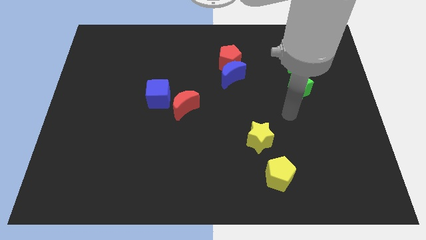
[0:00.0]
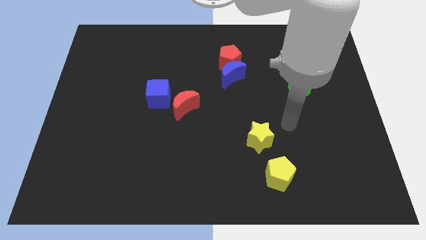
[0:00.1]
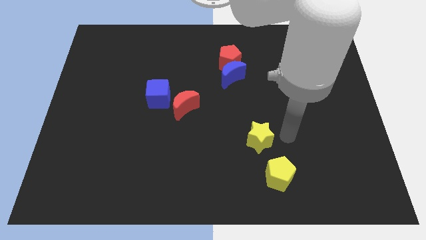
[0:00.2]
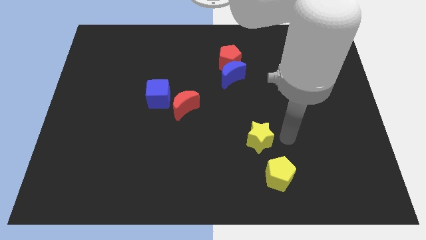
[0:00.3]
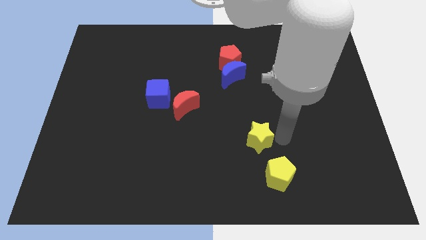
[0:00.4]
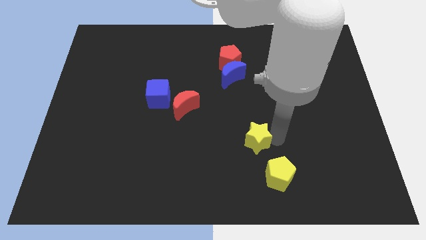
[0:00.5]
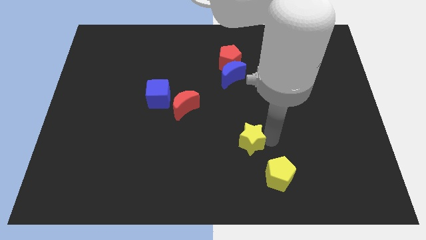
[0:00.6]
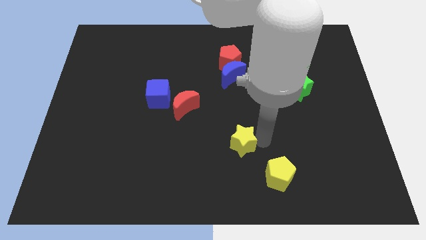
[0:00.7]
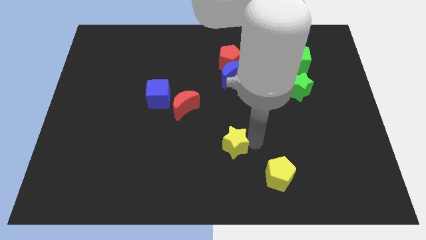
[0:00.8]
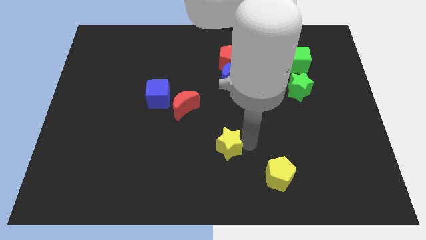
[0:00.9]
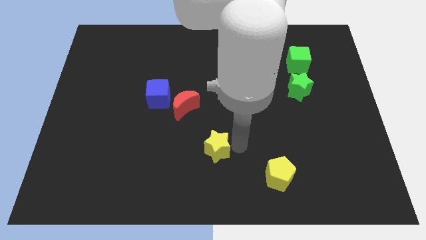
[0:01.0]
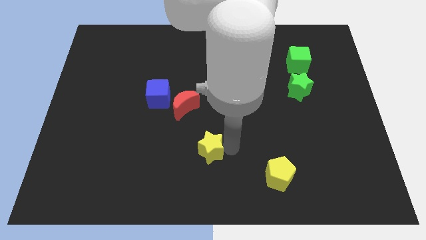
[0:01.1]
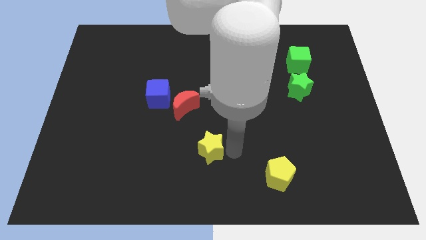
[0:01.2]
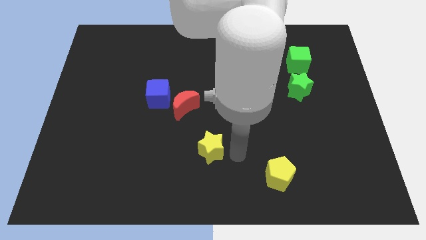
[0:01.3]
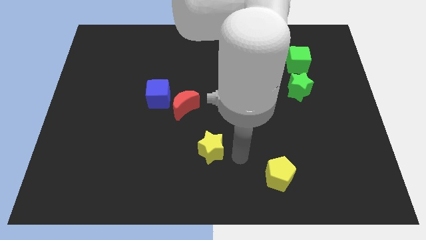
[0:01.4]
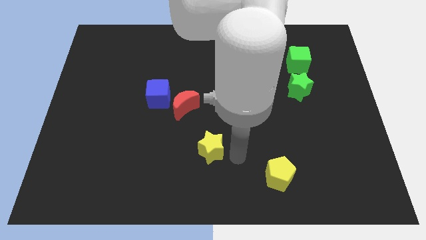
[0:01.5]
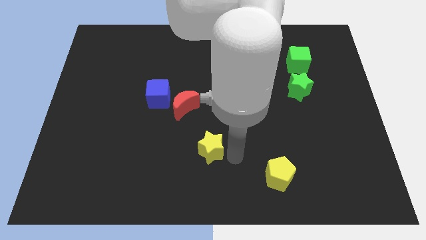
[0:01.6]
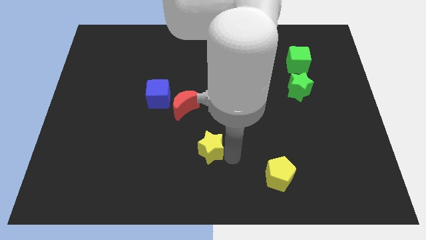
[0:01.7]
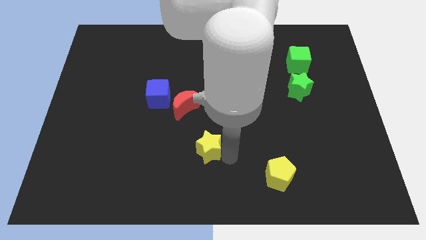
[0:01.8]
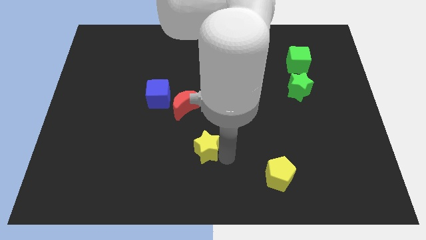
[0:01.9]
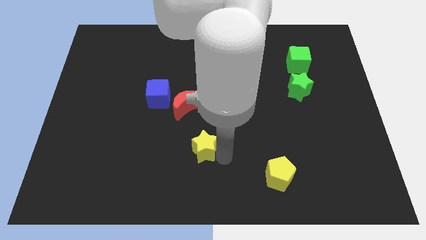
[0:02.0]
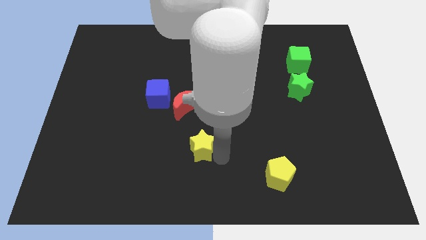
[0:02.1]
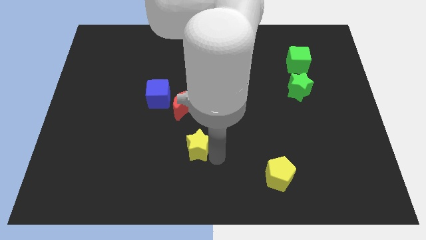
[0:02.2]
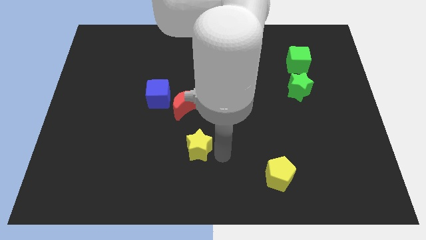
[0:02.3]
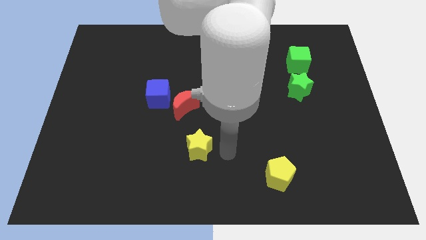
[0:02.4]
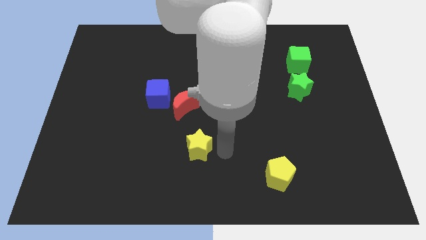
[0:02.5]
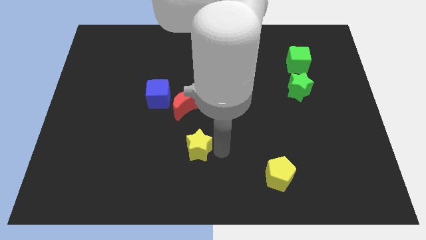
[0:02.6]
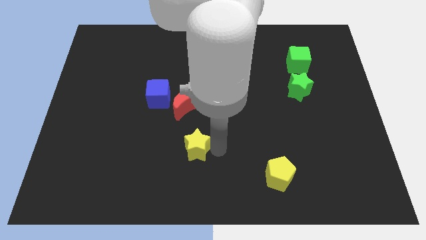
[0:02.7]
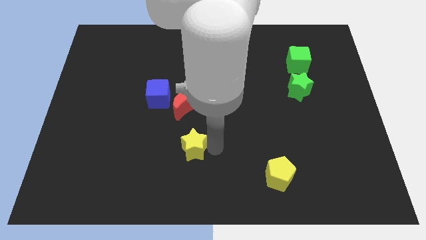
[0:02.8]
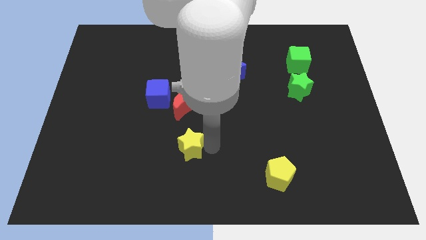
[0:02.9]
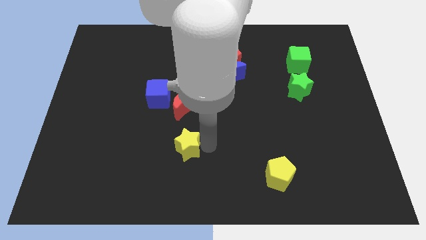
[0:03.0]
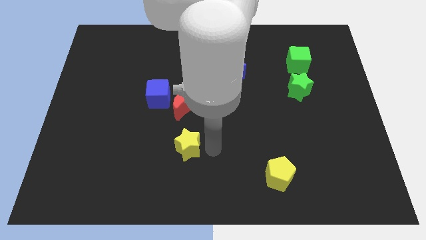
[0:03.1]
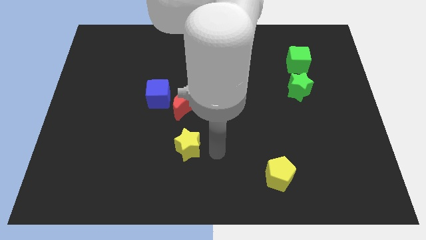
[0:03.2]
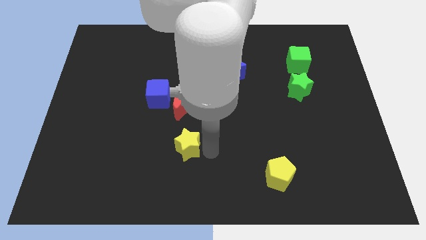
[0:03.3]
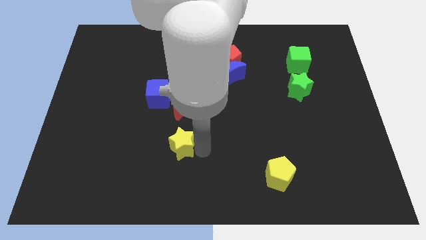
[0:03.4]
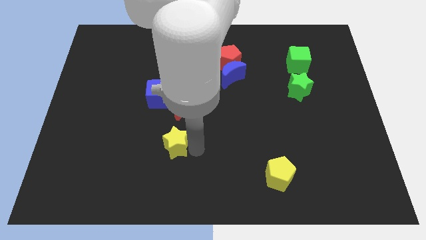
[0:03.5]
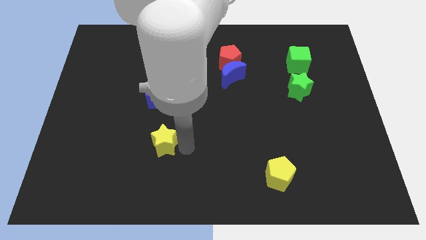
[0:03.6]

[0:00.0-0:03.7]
slide the yellow star to the left

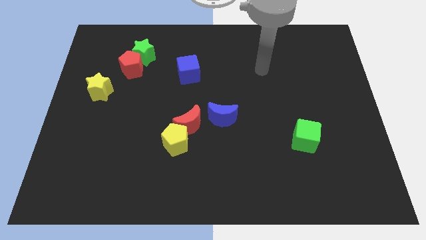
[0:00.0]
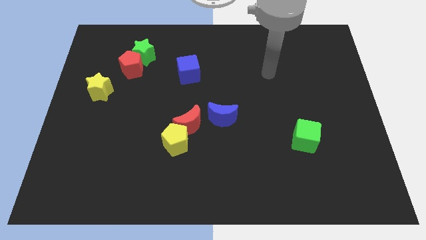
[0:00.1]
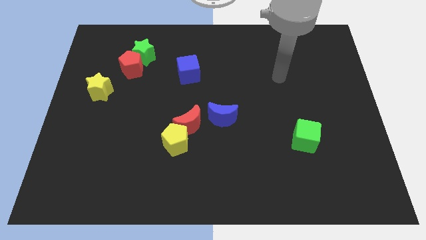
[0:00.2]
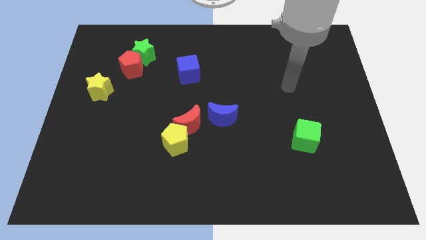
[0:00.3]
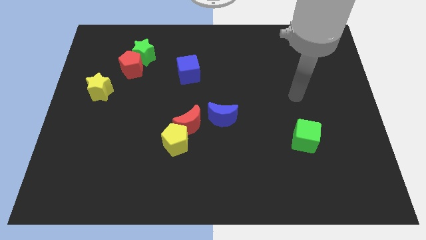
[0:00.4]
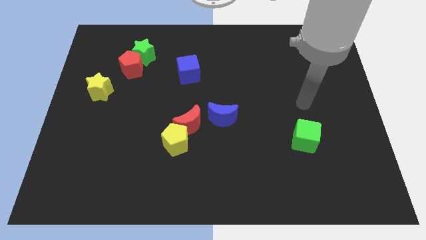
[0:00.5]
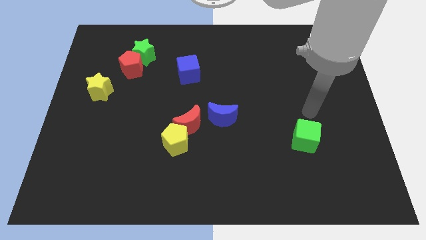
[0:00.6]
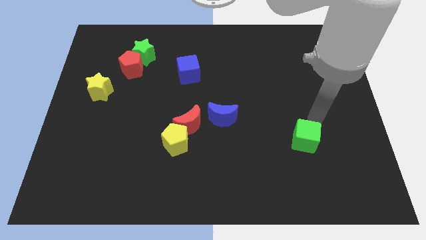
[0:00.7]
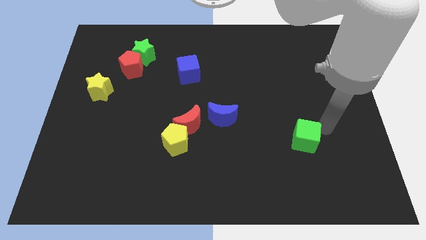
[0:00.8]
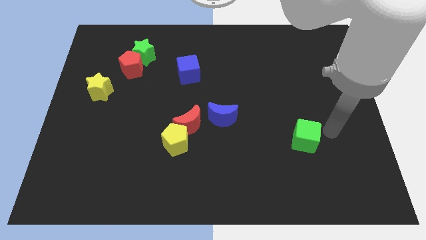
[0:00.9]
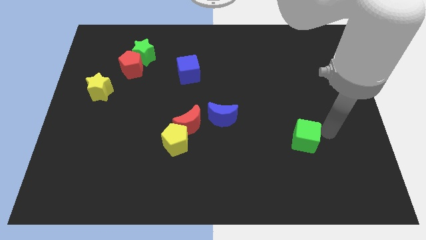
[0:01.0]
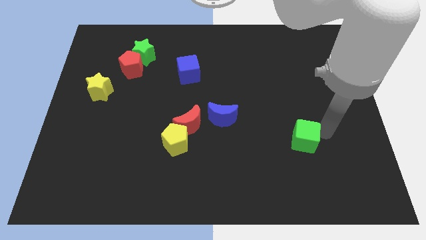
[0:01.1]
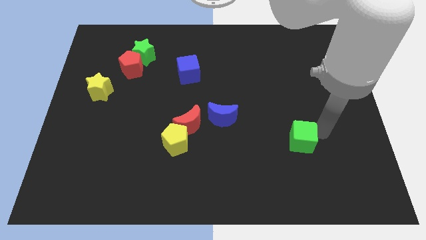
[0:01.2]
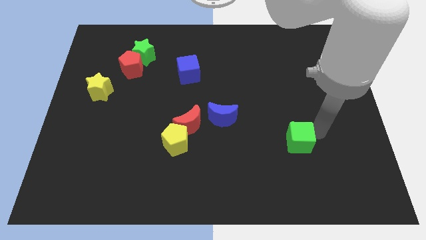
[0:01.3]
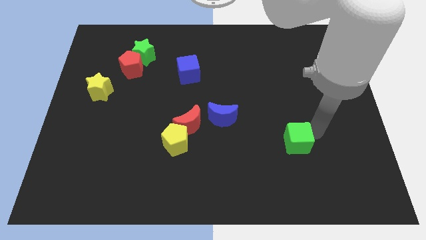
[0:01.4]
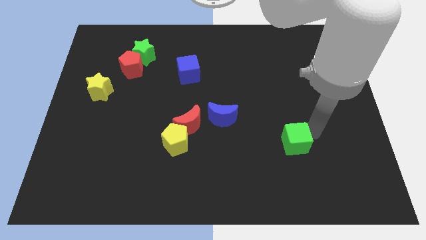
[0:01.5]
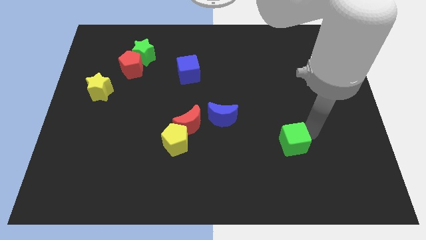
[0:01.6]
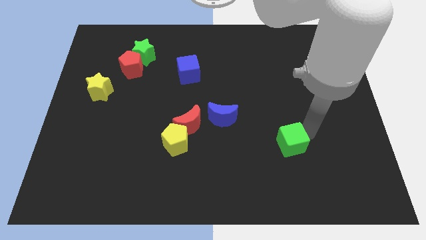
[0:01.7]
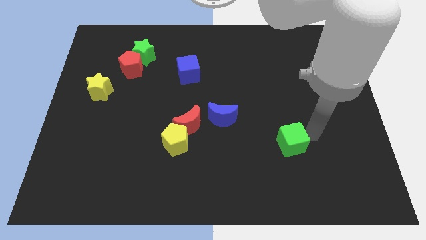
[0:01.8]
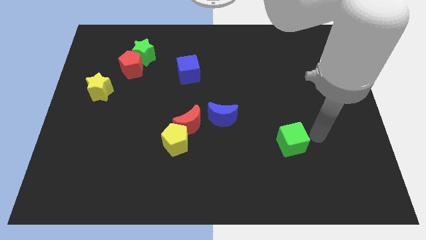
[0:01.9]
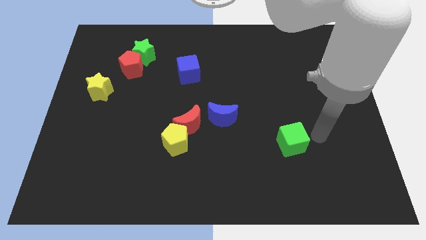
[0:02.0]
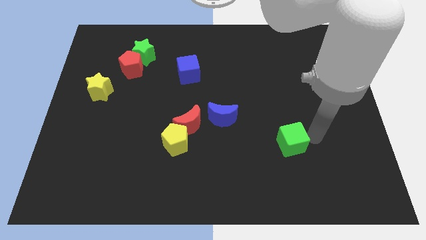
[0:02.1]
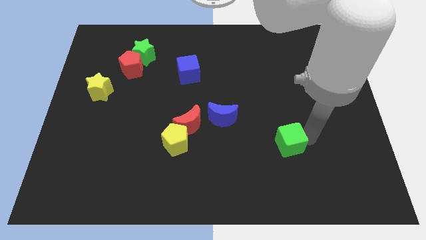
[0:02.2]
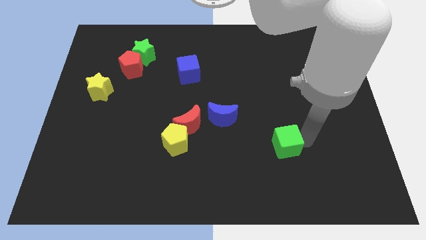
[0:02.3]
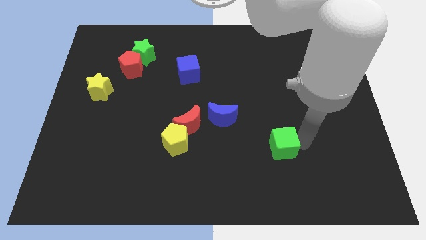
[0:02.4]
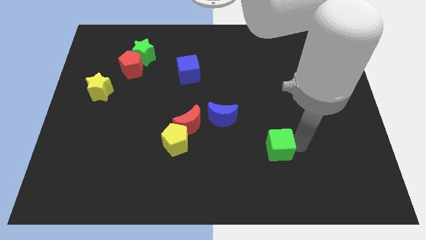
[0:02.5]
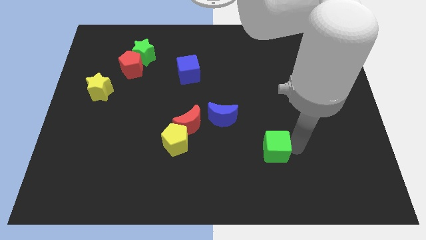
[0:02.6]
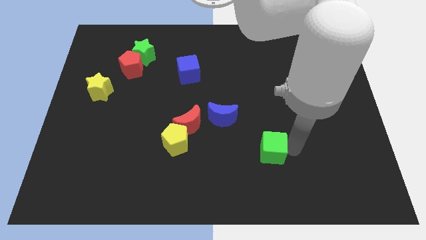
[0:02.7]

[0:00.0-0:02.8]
slide the green cube to the left a little

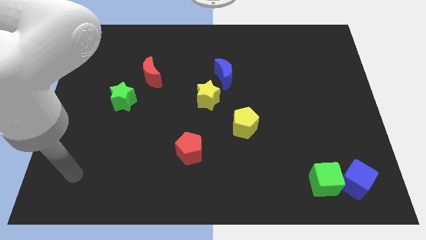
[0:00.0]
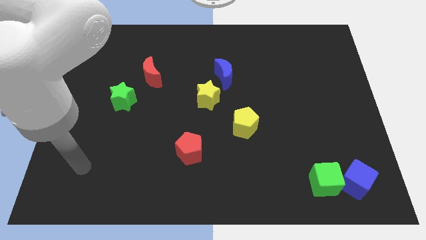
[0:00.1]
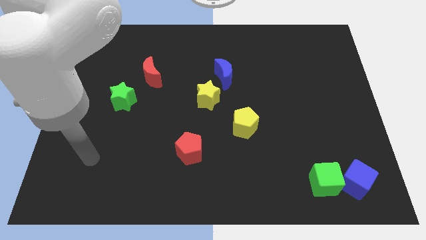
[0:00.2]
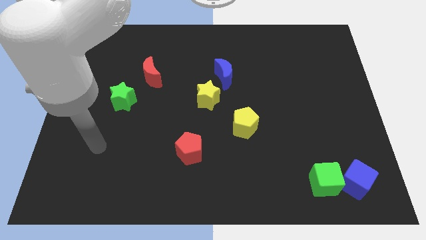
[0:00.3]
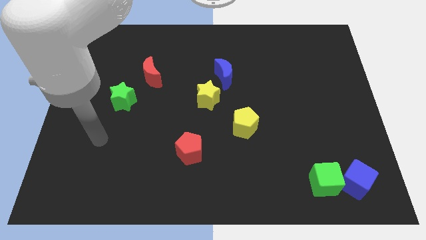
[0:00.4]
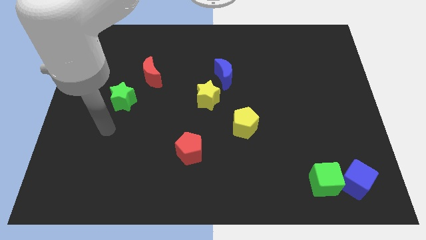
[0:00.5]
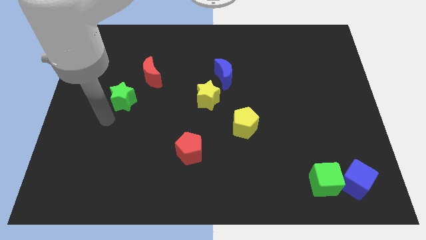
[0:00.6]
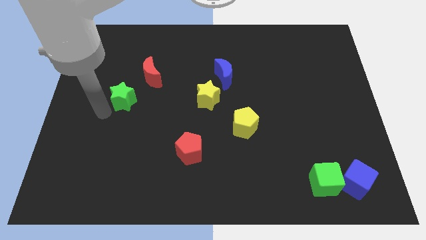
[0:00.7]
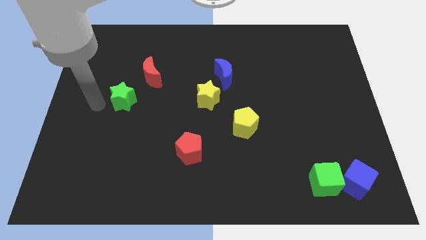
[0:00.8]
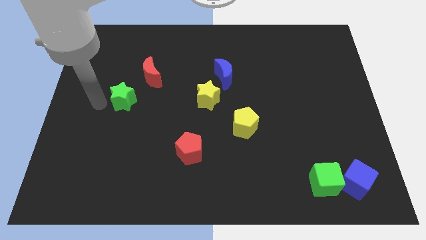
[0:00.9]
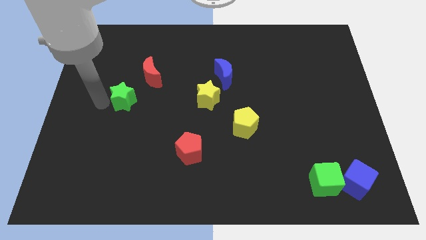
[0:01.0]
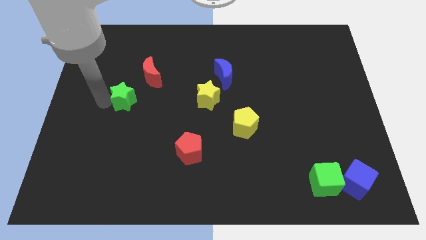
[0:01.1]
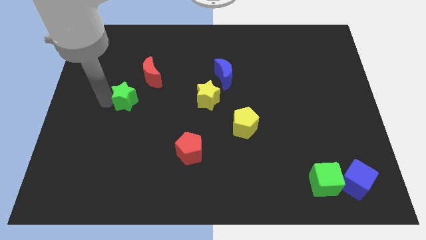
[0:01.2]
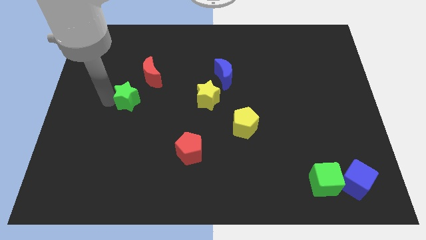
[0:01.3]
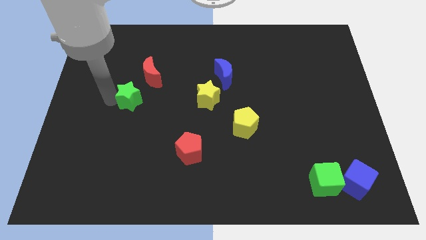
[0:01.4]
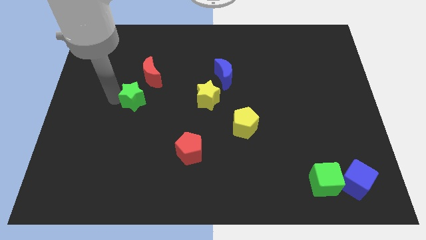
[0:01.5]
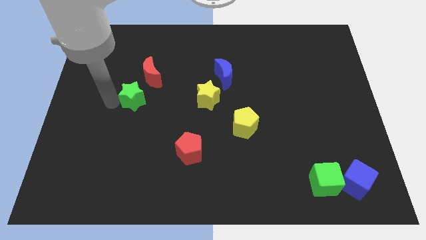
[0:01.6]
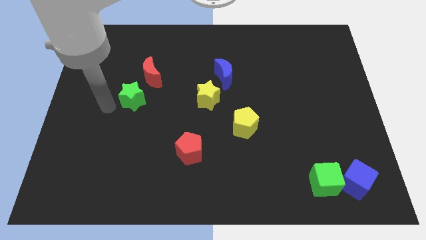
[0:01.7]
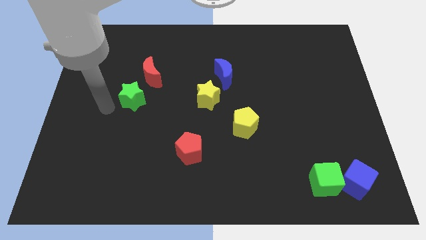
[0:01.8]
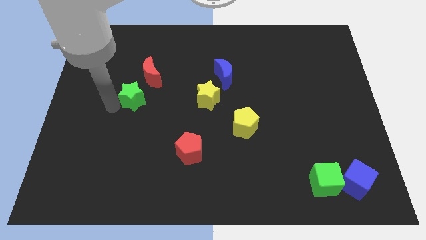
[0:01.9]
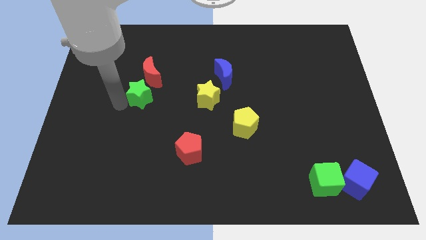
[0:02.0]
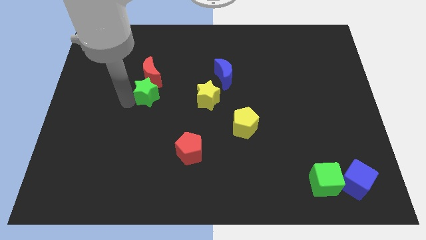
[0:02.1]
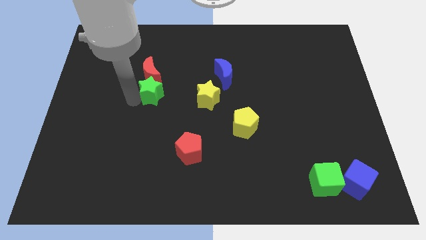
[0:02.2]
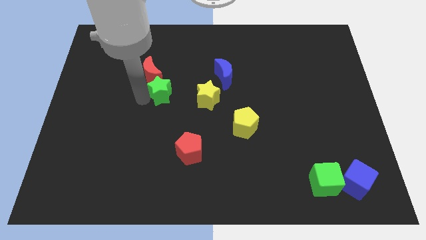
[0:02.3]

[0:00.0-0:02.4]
slide the green star a little upwards and then to the right
